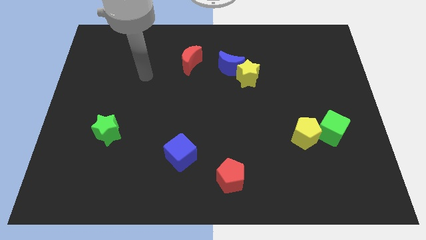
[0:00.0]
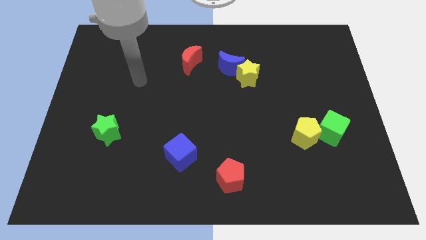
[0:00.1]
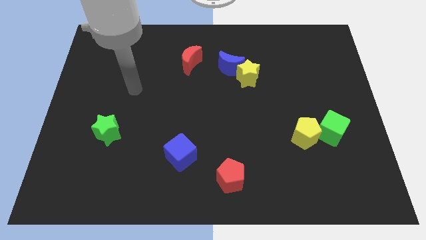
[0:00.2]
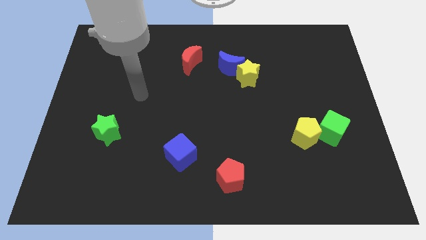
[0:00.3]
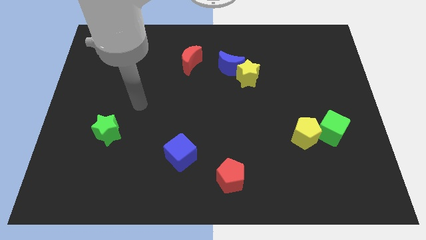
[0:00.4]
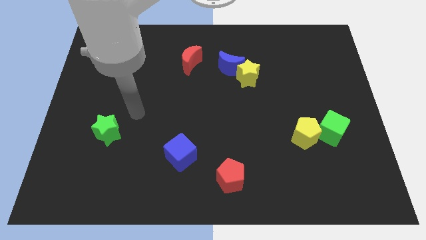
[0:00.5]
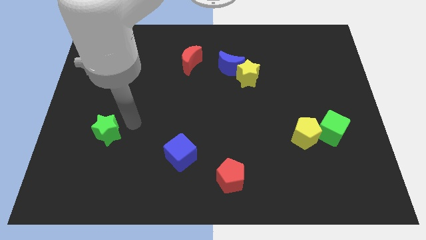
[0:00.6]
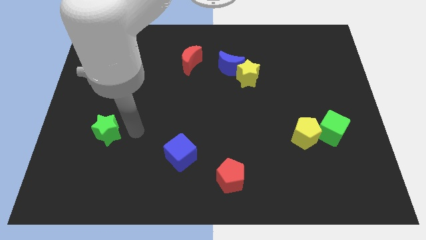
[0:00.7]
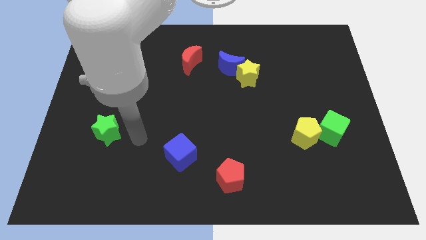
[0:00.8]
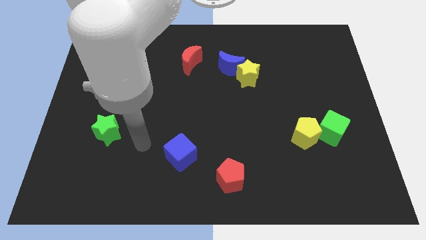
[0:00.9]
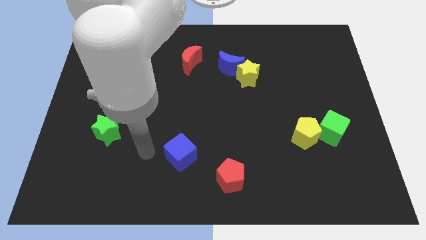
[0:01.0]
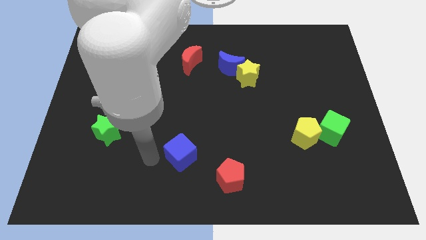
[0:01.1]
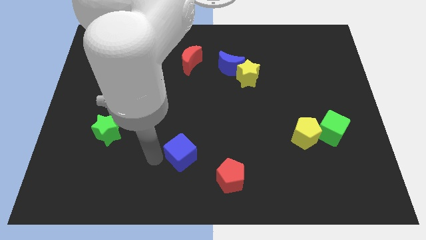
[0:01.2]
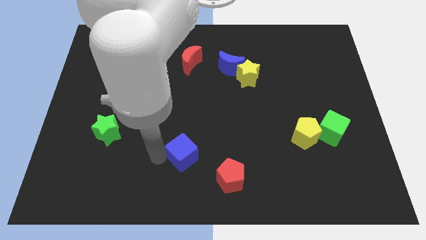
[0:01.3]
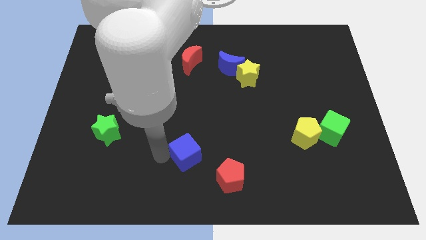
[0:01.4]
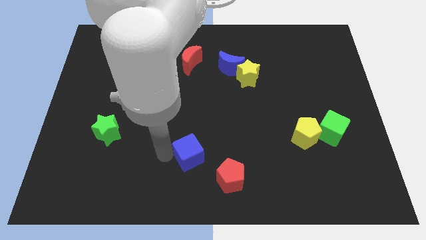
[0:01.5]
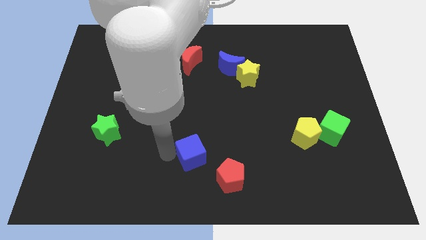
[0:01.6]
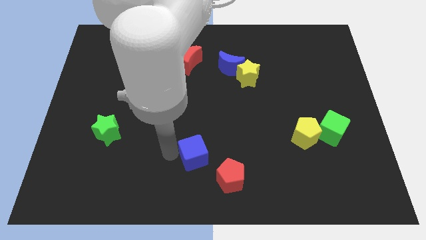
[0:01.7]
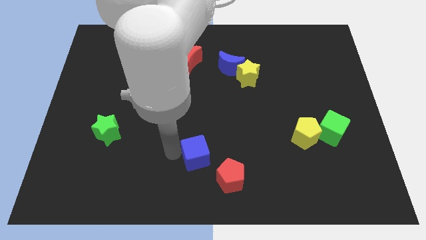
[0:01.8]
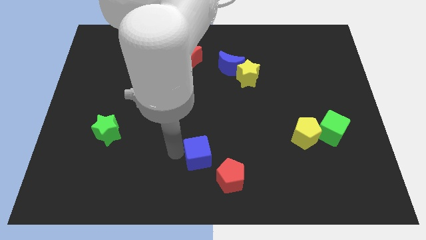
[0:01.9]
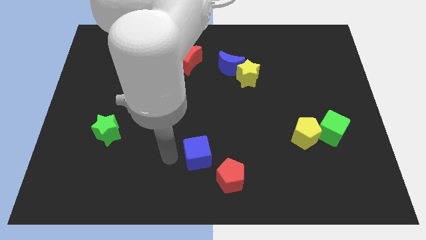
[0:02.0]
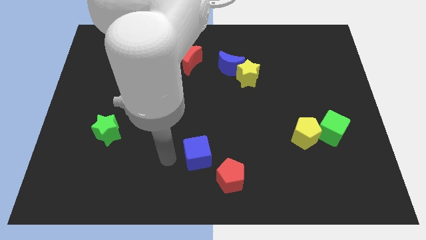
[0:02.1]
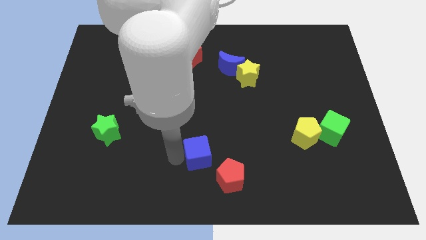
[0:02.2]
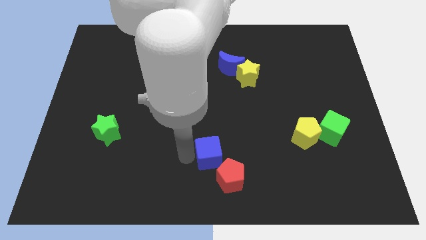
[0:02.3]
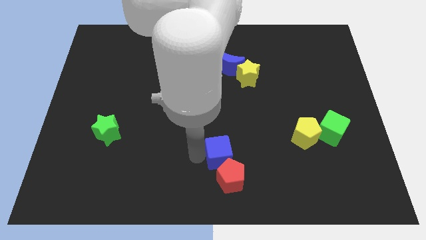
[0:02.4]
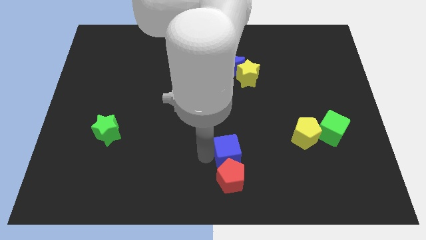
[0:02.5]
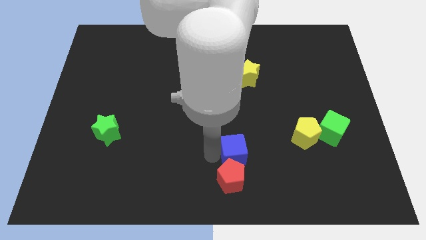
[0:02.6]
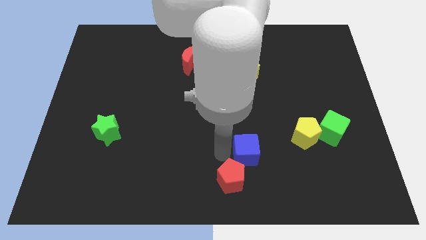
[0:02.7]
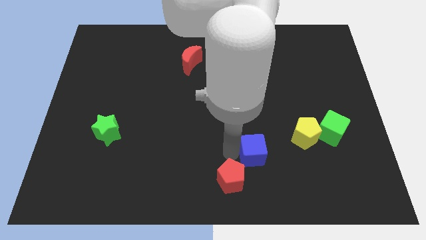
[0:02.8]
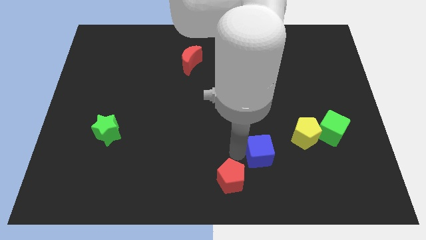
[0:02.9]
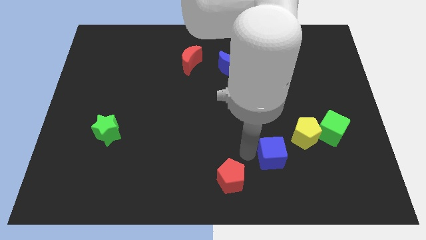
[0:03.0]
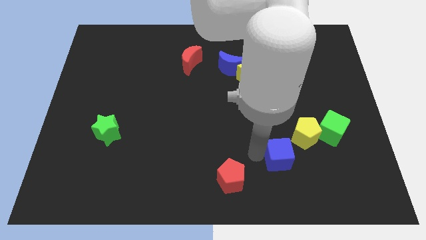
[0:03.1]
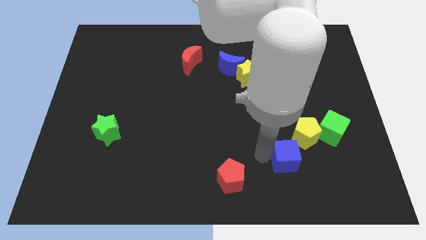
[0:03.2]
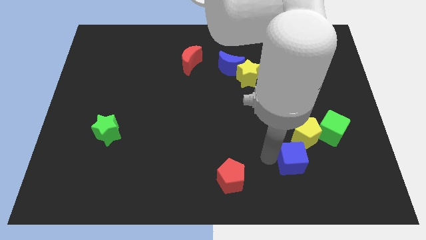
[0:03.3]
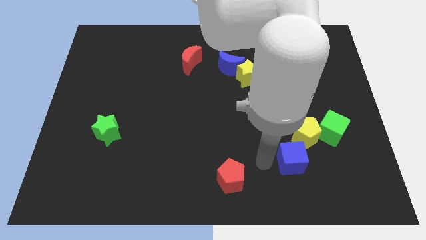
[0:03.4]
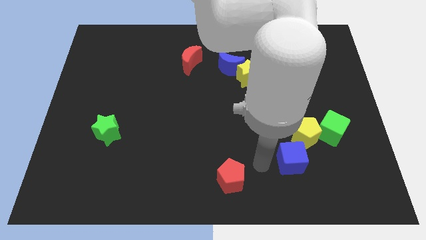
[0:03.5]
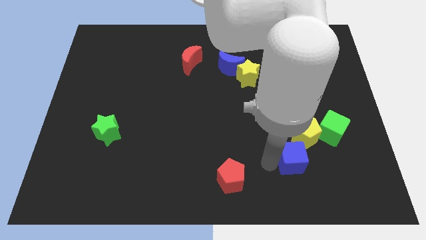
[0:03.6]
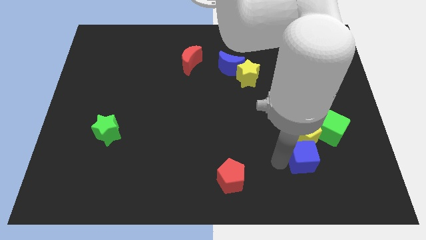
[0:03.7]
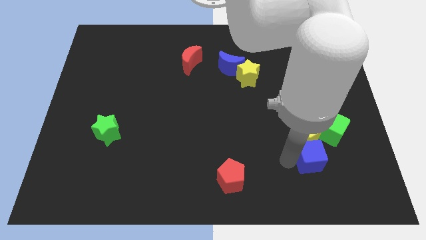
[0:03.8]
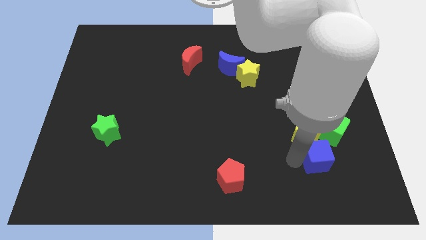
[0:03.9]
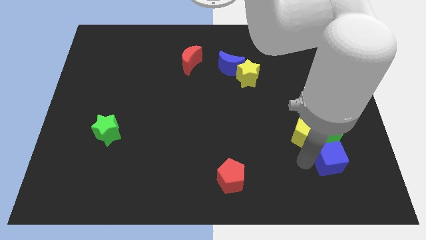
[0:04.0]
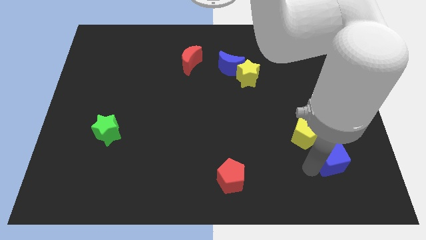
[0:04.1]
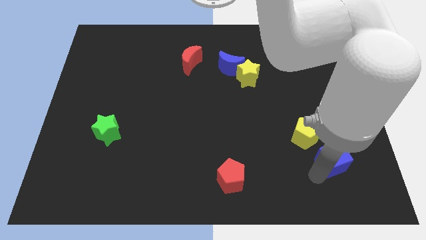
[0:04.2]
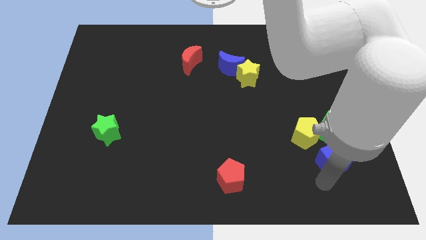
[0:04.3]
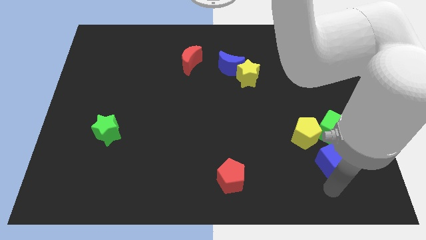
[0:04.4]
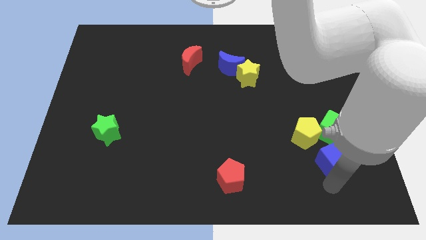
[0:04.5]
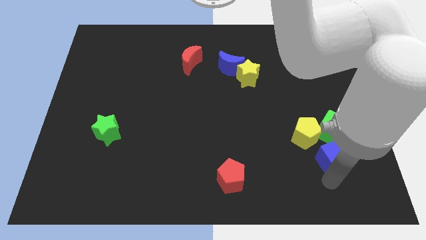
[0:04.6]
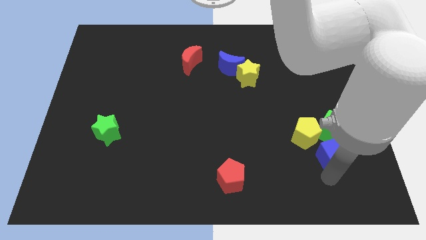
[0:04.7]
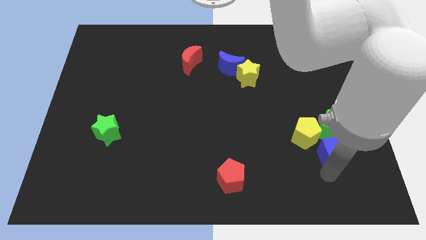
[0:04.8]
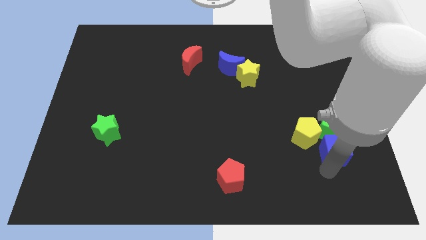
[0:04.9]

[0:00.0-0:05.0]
move the blue cube close to the green cube

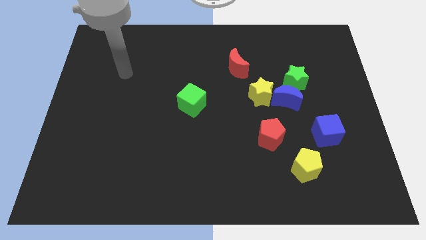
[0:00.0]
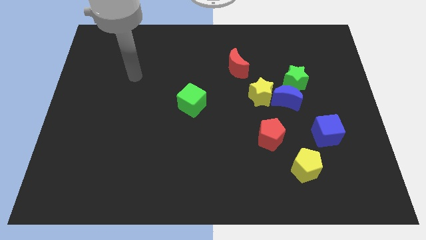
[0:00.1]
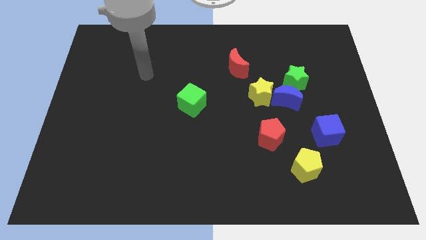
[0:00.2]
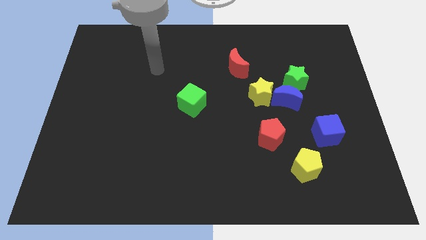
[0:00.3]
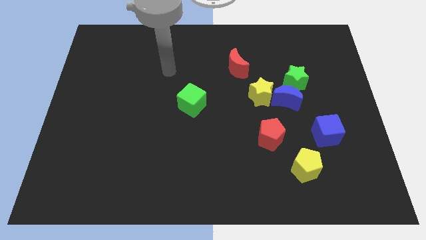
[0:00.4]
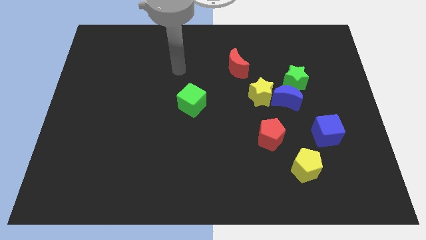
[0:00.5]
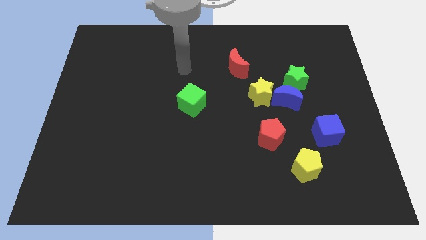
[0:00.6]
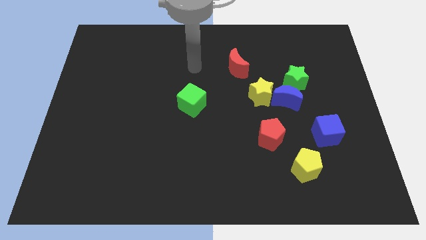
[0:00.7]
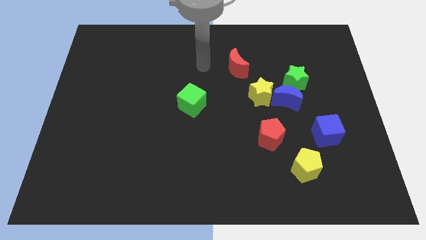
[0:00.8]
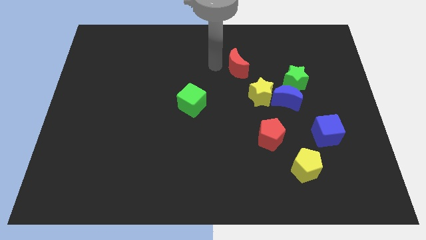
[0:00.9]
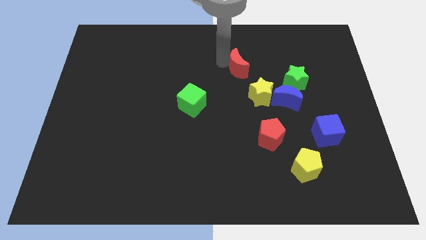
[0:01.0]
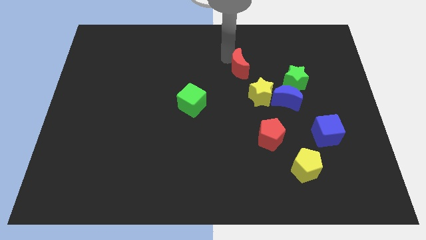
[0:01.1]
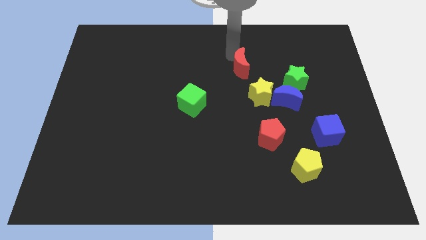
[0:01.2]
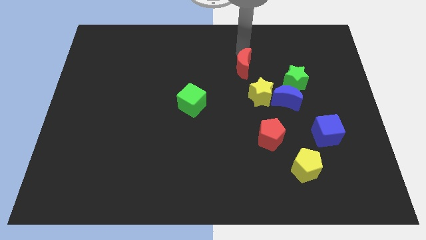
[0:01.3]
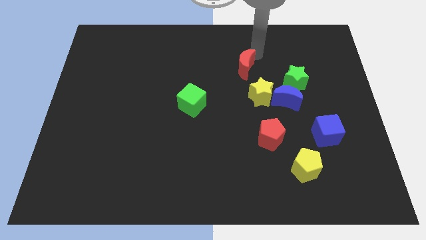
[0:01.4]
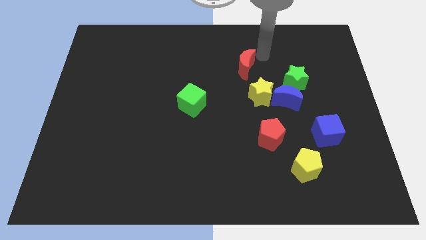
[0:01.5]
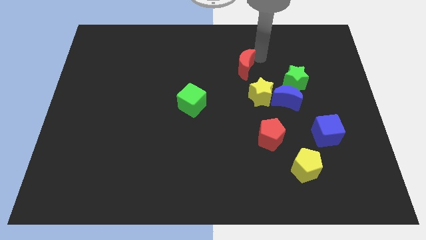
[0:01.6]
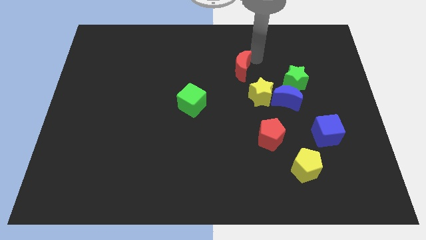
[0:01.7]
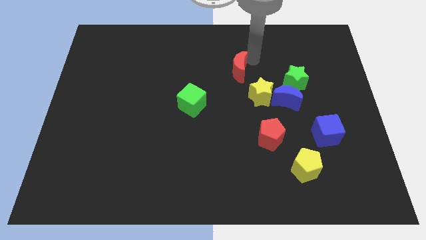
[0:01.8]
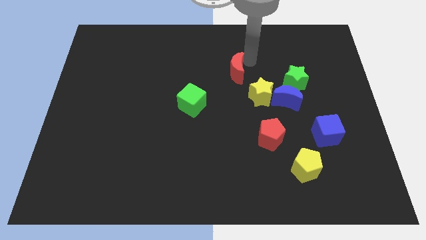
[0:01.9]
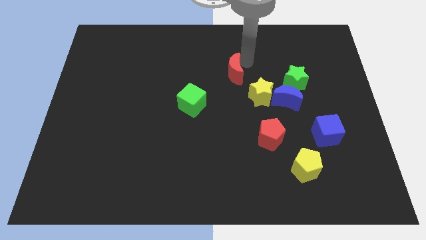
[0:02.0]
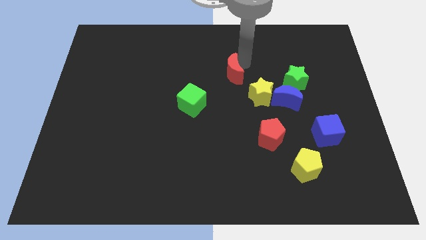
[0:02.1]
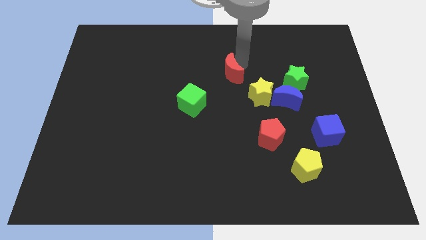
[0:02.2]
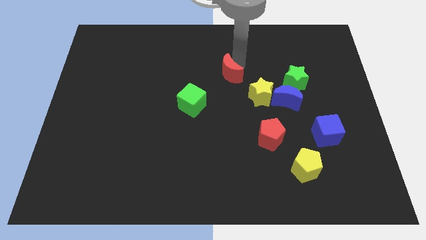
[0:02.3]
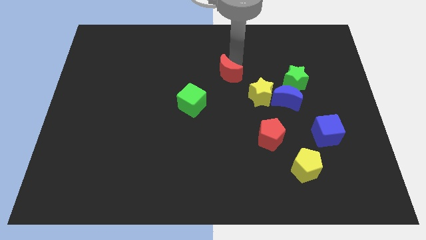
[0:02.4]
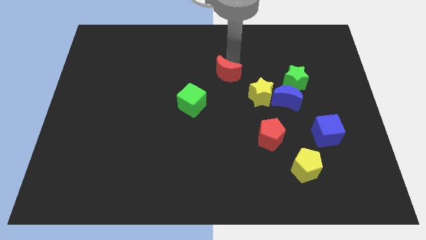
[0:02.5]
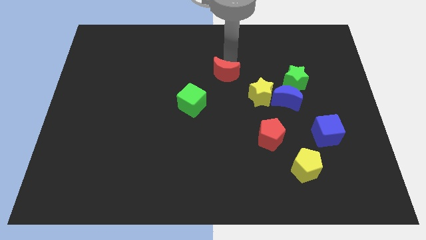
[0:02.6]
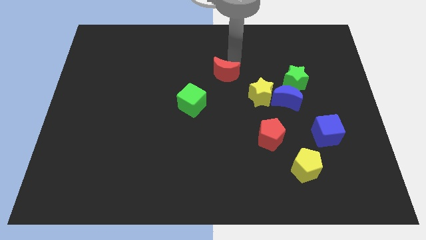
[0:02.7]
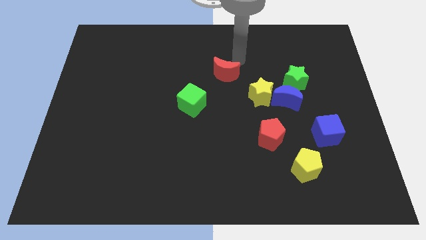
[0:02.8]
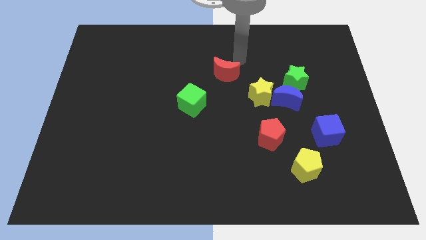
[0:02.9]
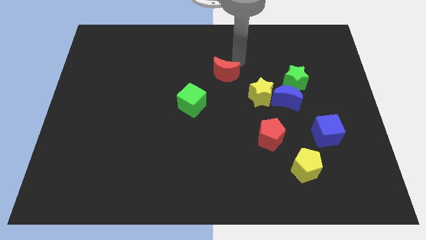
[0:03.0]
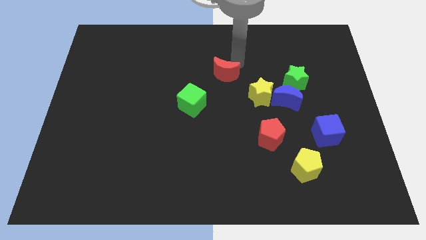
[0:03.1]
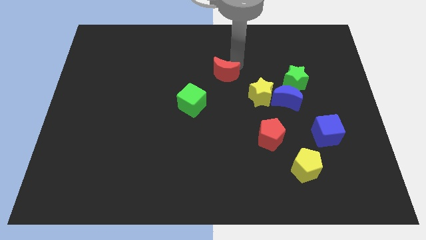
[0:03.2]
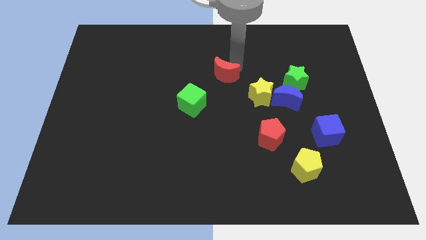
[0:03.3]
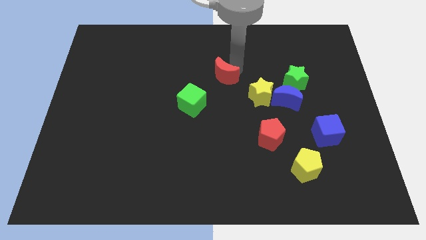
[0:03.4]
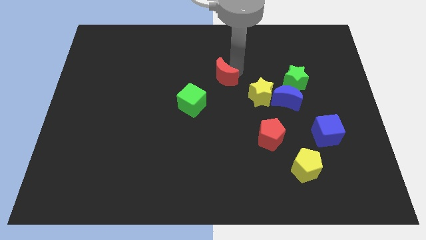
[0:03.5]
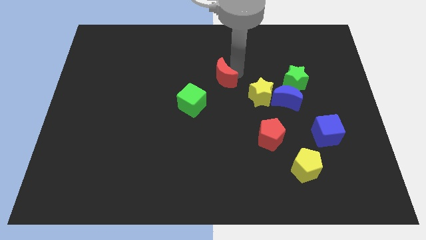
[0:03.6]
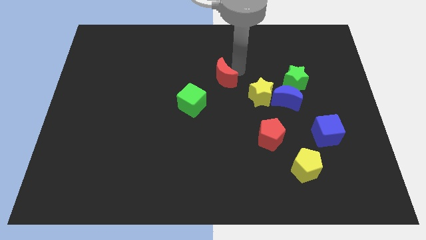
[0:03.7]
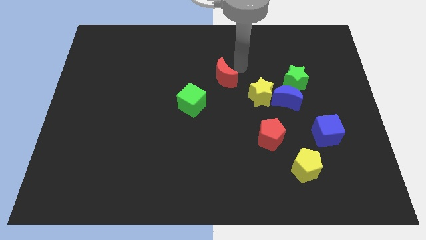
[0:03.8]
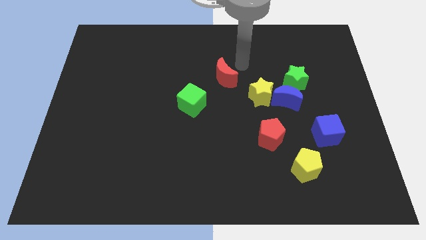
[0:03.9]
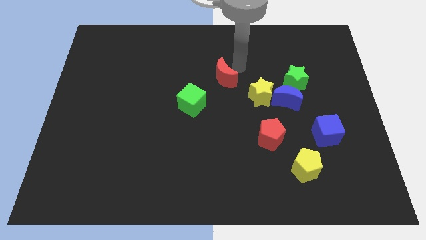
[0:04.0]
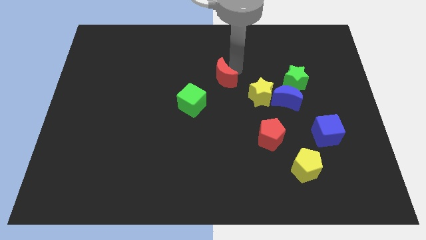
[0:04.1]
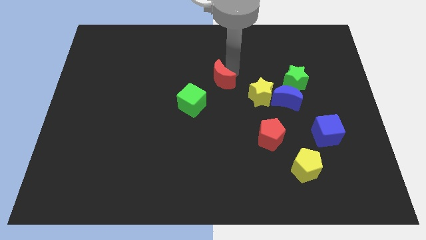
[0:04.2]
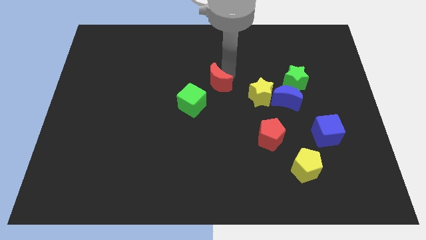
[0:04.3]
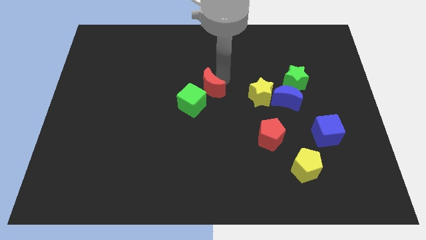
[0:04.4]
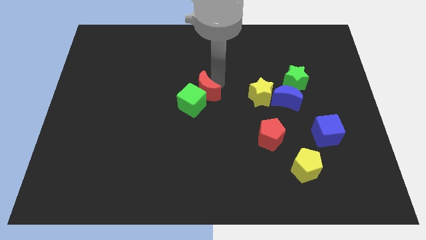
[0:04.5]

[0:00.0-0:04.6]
slide the red moon next to the green cube
